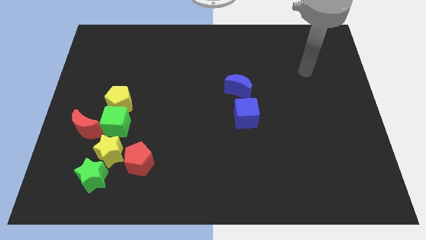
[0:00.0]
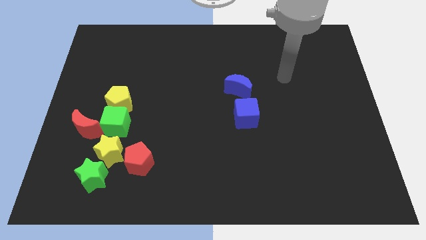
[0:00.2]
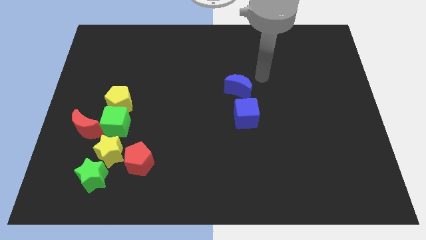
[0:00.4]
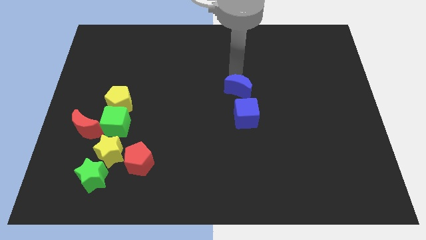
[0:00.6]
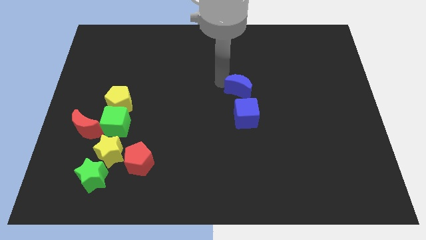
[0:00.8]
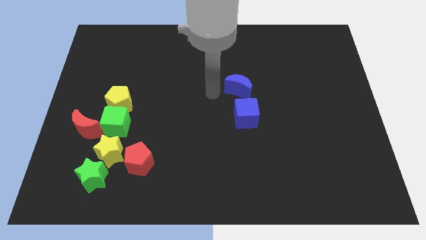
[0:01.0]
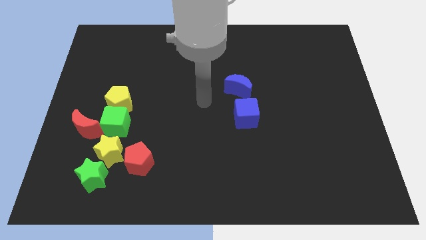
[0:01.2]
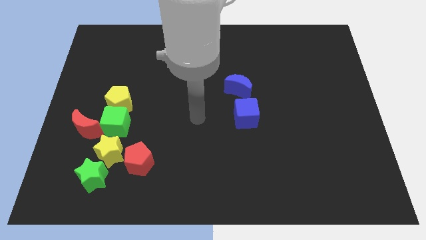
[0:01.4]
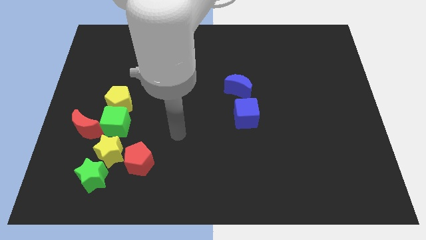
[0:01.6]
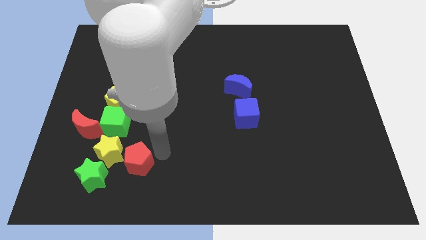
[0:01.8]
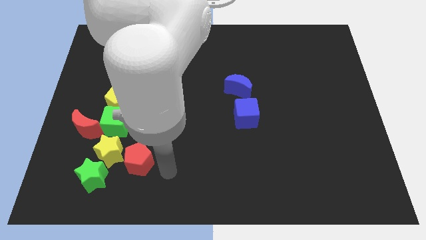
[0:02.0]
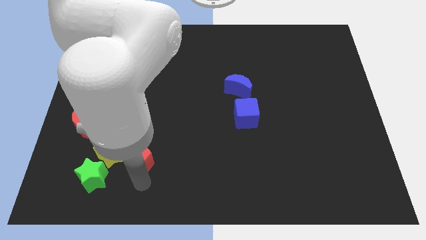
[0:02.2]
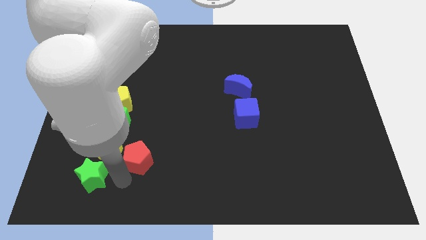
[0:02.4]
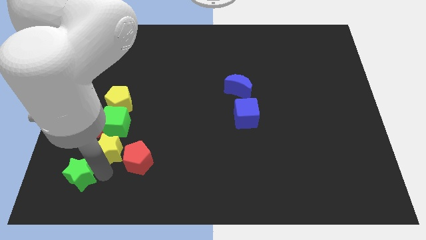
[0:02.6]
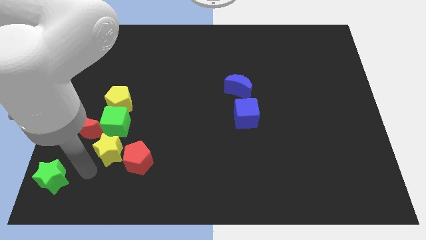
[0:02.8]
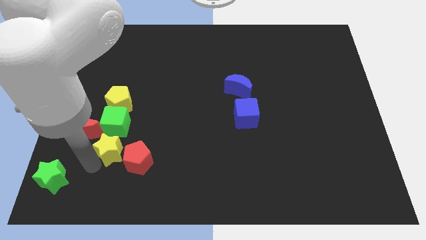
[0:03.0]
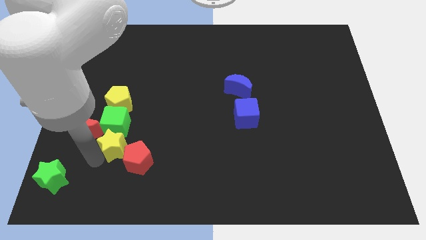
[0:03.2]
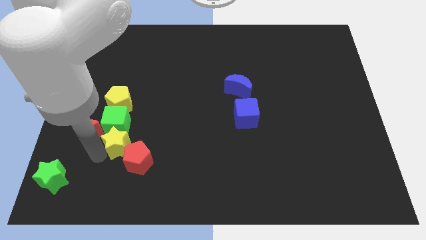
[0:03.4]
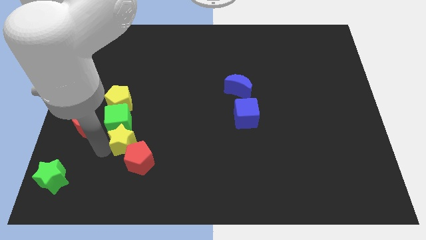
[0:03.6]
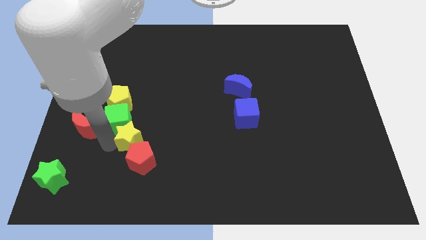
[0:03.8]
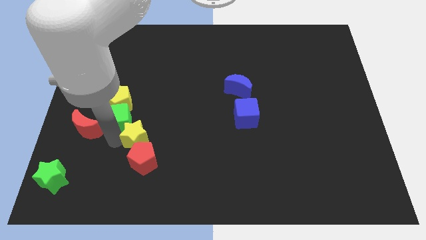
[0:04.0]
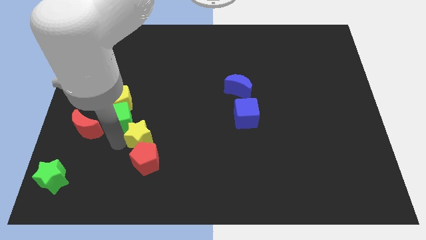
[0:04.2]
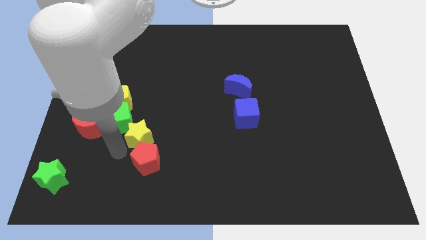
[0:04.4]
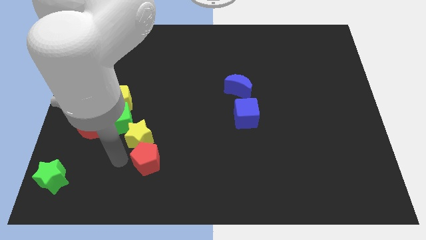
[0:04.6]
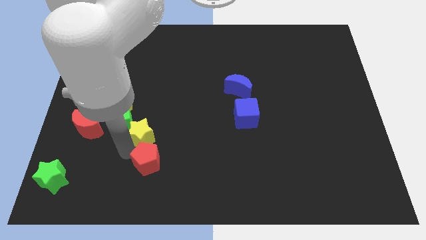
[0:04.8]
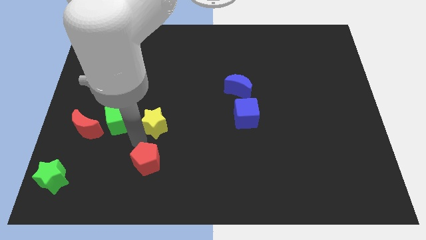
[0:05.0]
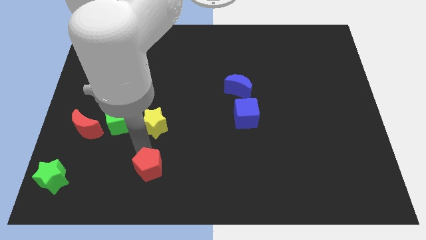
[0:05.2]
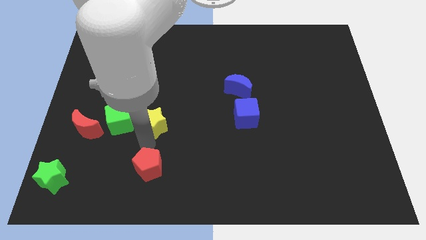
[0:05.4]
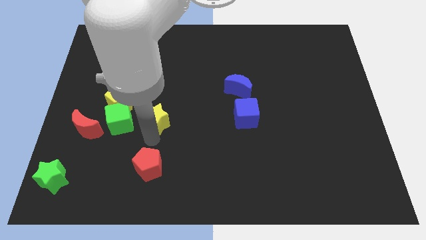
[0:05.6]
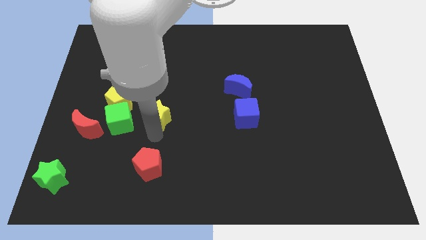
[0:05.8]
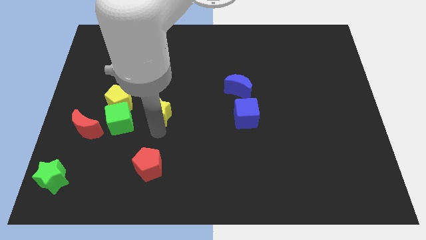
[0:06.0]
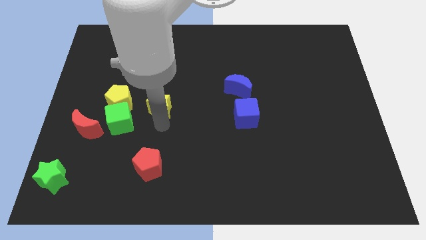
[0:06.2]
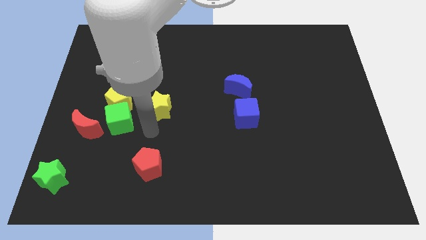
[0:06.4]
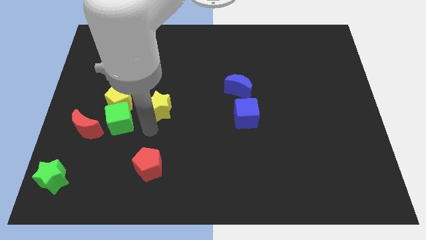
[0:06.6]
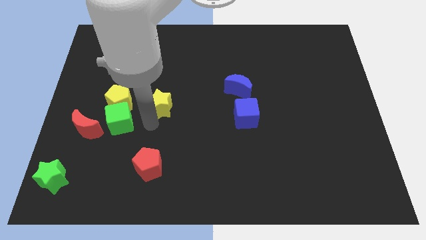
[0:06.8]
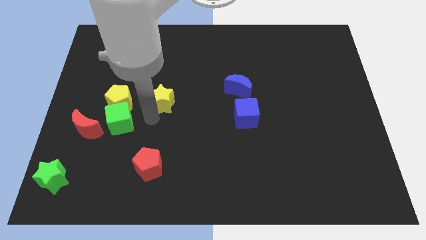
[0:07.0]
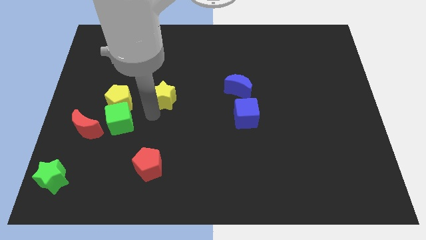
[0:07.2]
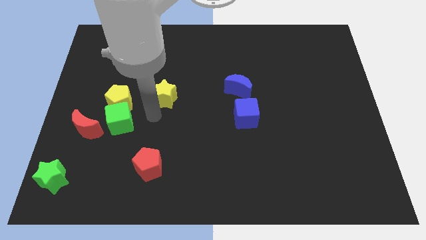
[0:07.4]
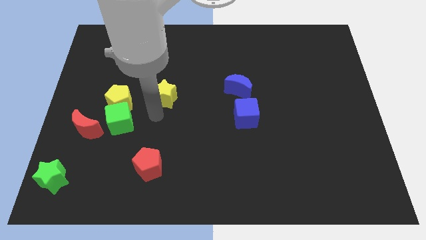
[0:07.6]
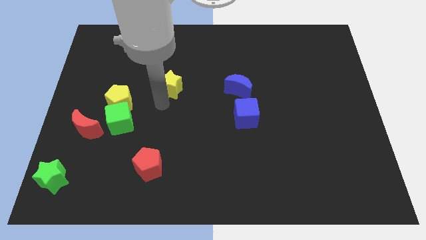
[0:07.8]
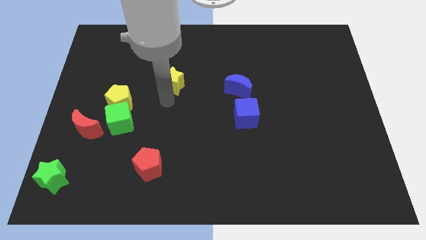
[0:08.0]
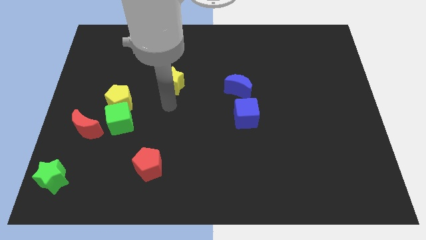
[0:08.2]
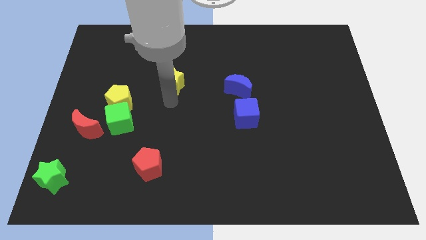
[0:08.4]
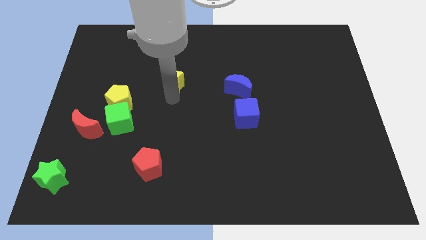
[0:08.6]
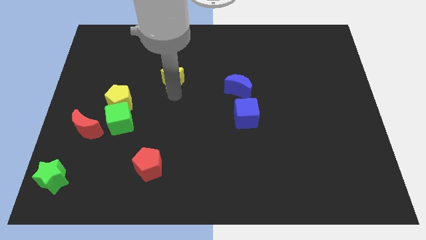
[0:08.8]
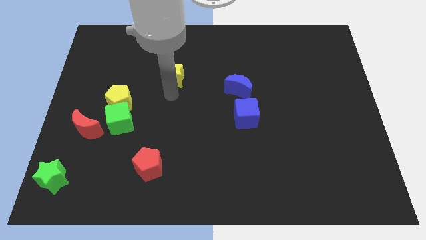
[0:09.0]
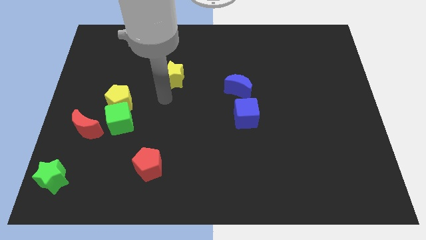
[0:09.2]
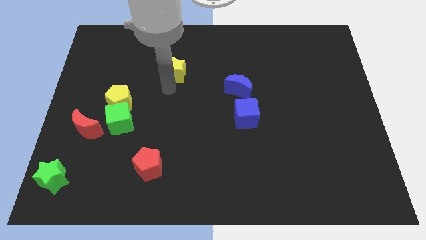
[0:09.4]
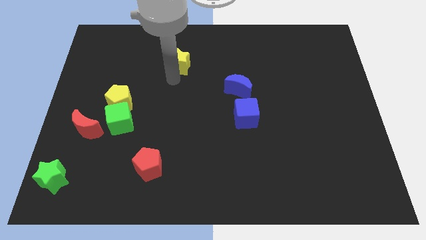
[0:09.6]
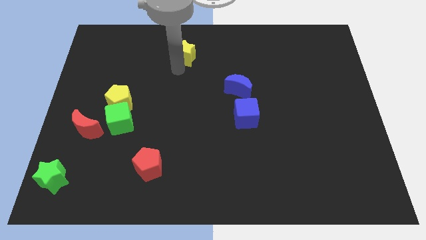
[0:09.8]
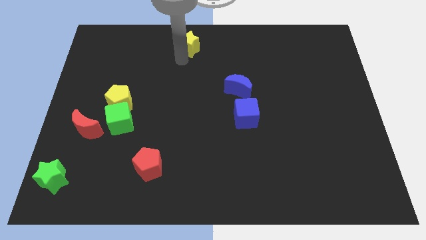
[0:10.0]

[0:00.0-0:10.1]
put the yellow star to the top side

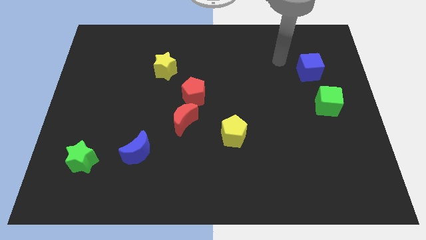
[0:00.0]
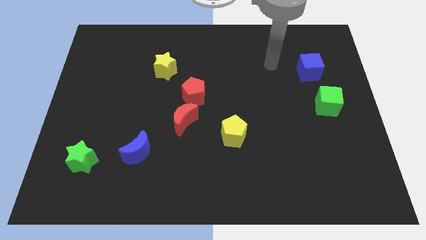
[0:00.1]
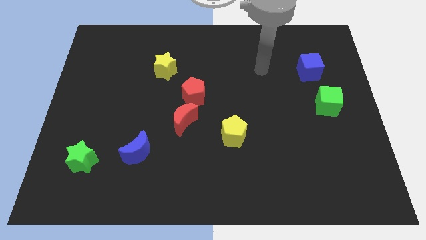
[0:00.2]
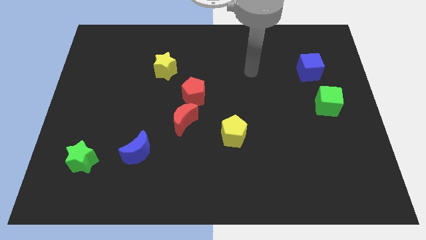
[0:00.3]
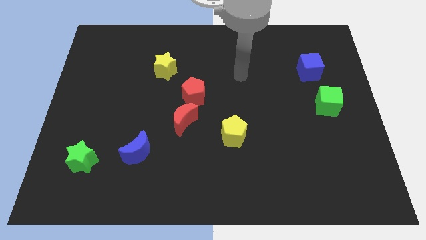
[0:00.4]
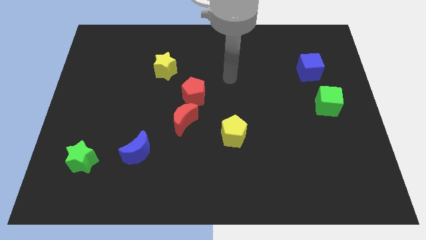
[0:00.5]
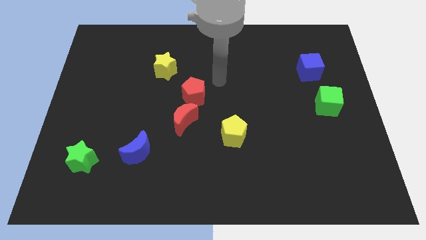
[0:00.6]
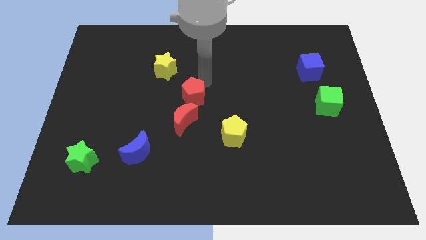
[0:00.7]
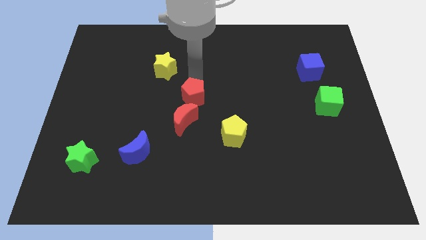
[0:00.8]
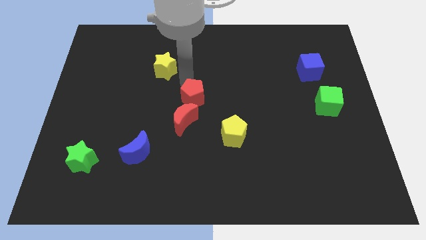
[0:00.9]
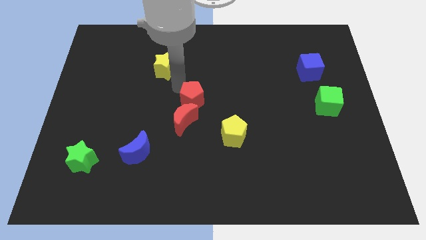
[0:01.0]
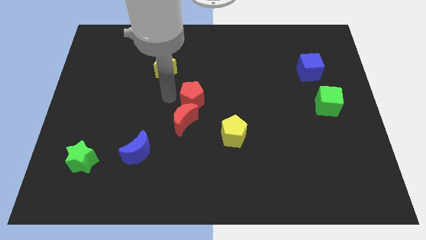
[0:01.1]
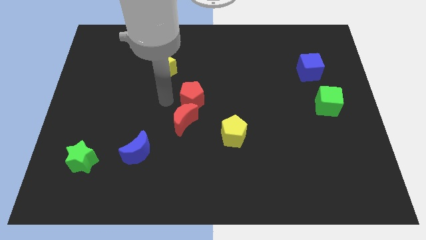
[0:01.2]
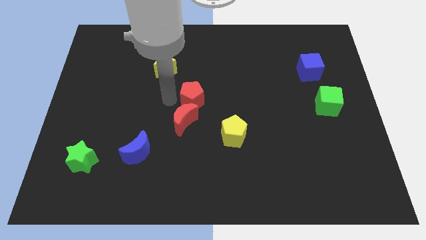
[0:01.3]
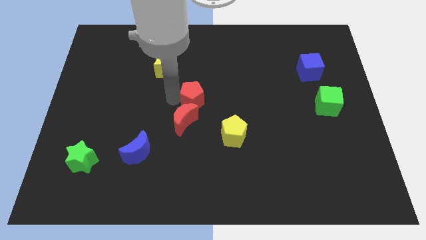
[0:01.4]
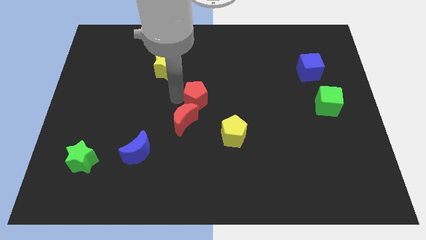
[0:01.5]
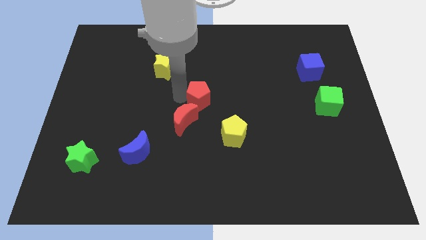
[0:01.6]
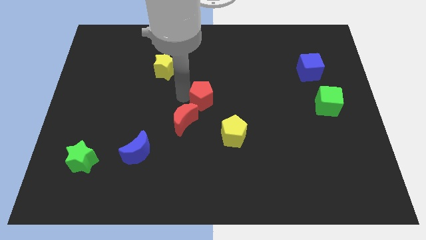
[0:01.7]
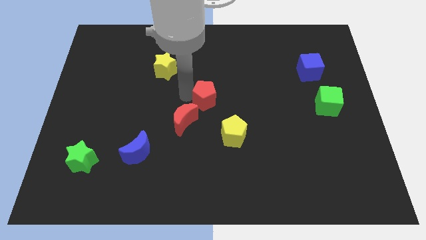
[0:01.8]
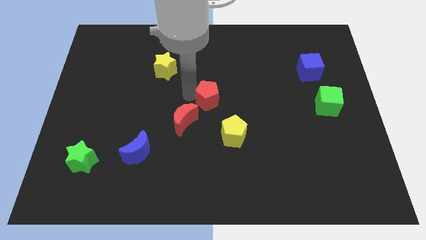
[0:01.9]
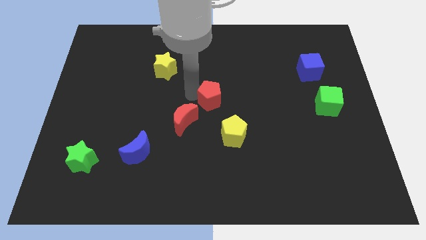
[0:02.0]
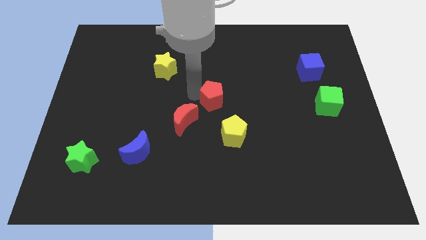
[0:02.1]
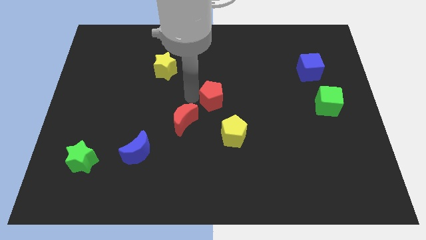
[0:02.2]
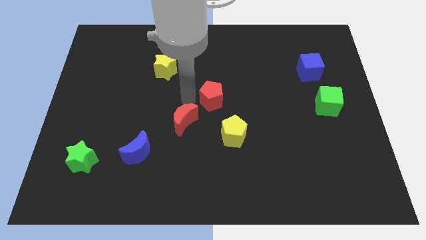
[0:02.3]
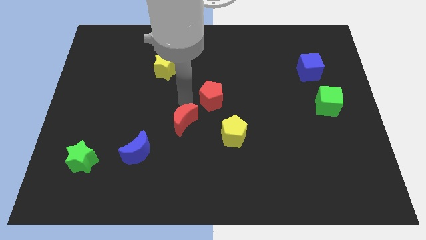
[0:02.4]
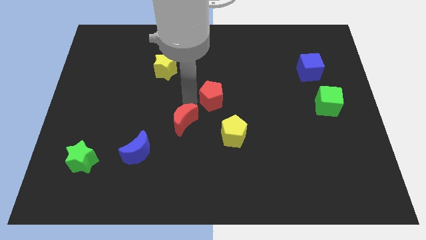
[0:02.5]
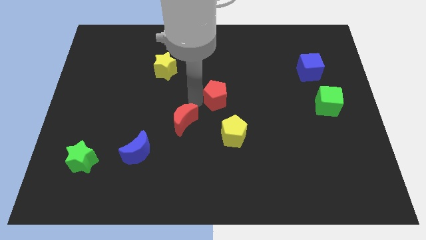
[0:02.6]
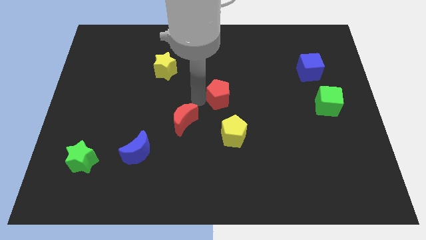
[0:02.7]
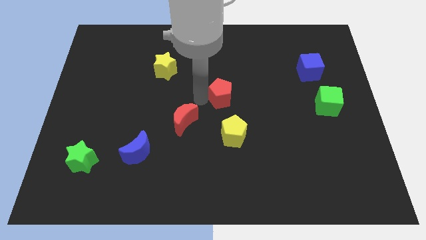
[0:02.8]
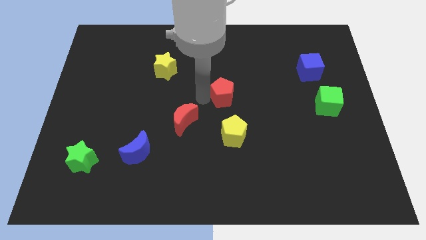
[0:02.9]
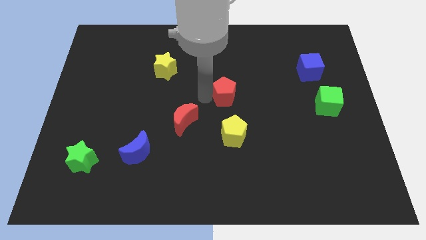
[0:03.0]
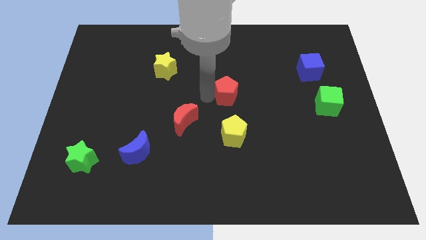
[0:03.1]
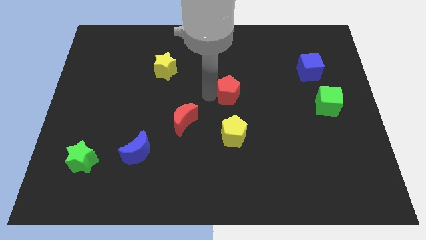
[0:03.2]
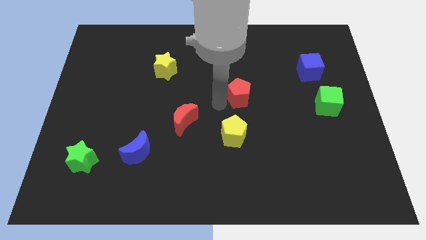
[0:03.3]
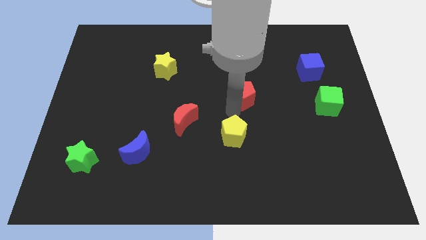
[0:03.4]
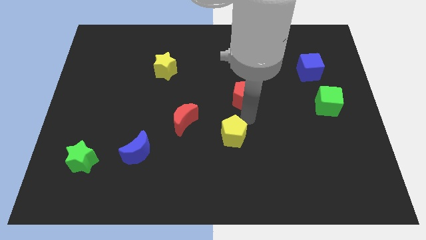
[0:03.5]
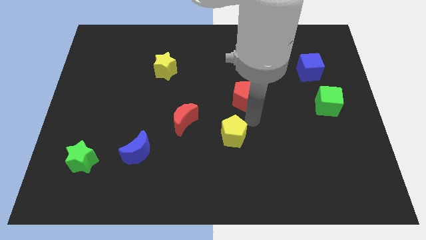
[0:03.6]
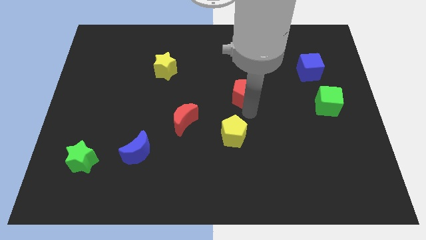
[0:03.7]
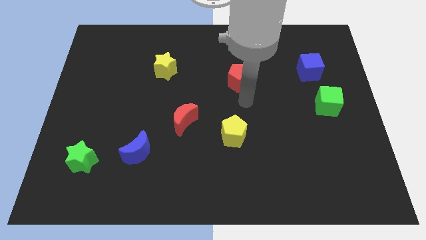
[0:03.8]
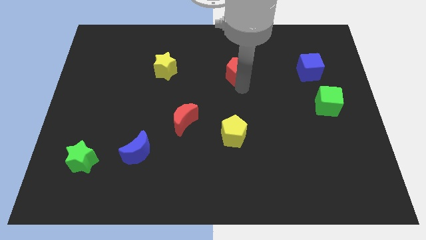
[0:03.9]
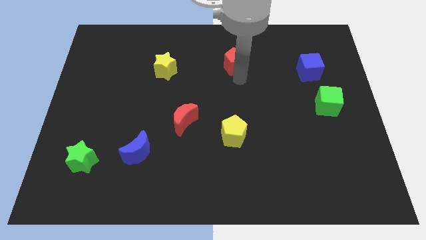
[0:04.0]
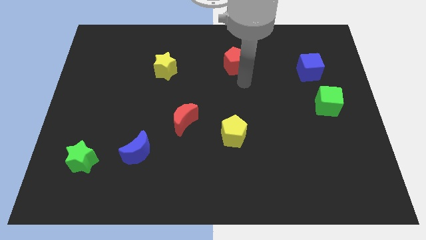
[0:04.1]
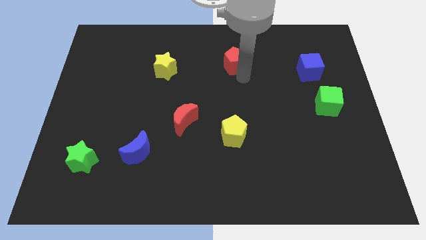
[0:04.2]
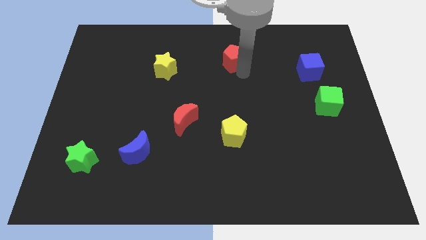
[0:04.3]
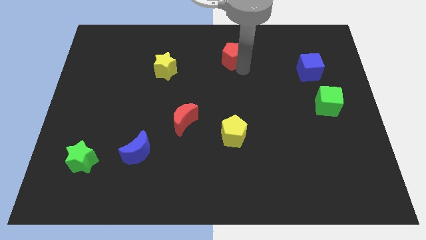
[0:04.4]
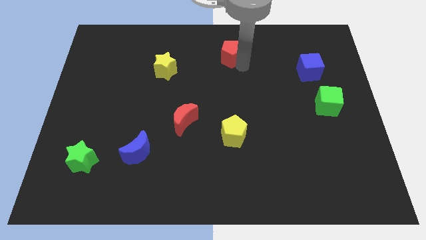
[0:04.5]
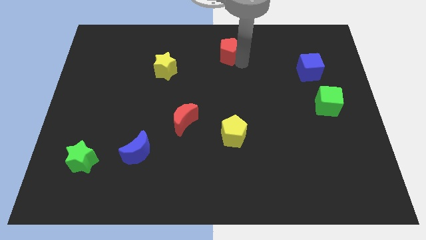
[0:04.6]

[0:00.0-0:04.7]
move the red pentagon to the towards your base
